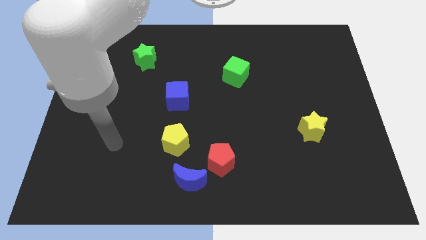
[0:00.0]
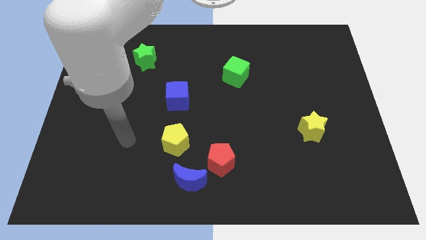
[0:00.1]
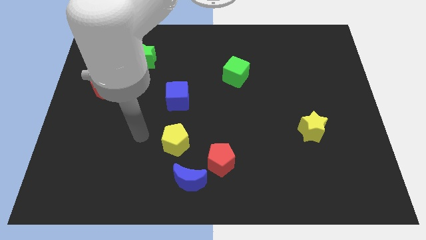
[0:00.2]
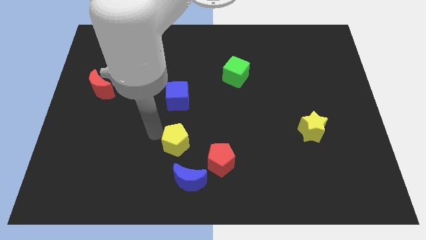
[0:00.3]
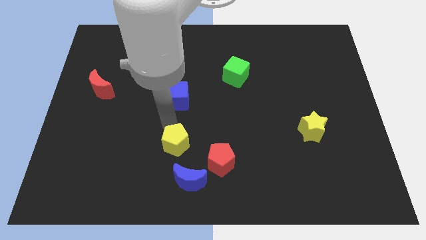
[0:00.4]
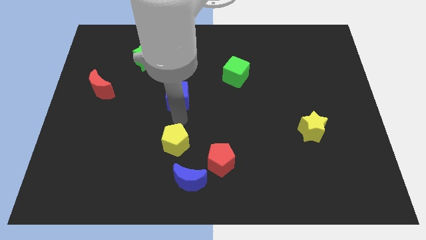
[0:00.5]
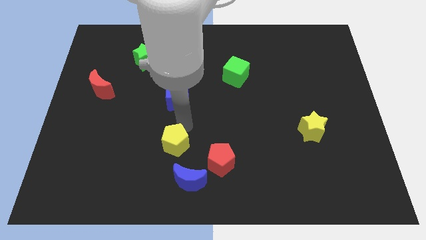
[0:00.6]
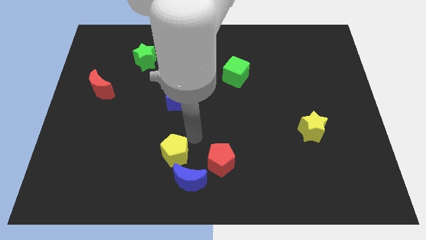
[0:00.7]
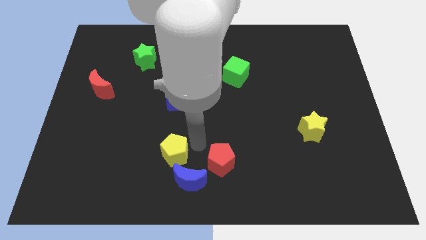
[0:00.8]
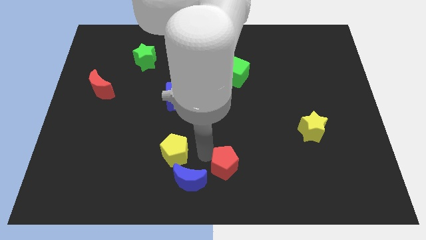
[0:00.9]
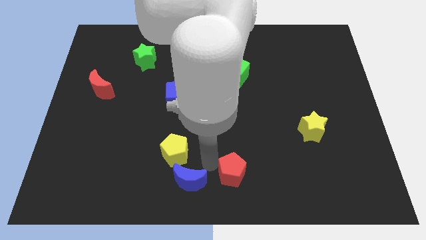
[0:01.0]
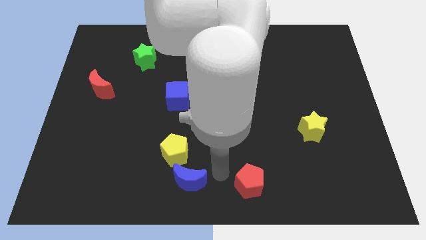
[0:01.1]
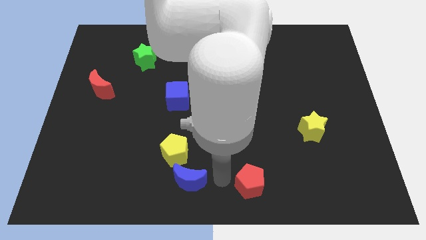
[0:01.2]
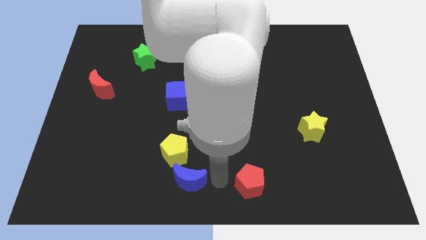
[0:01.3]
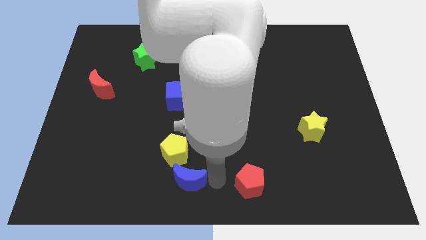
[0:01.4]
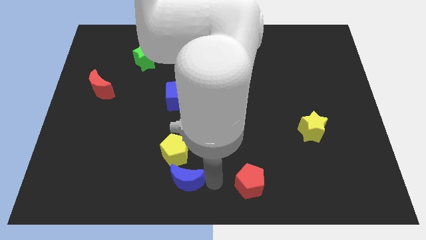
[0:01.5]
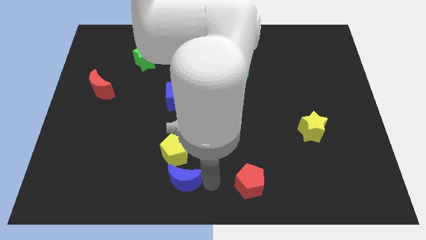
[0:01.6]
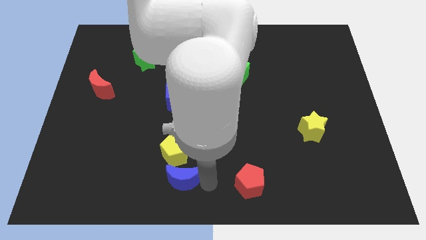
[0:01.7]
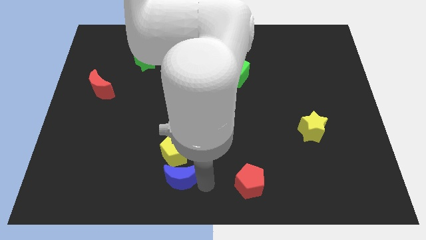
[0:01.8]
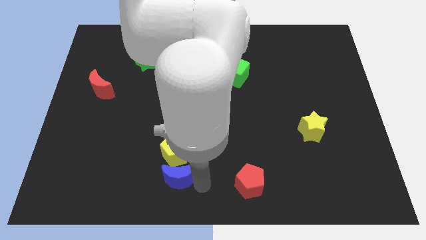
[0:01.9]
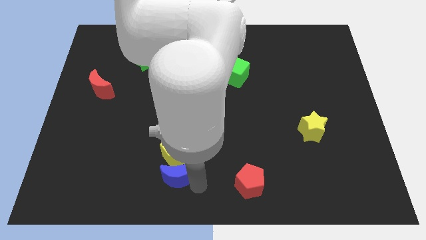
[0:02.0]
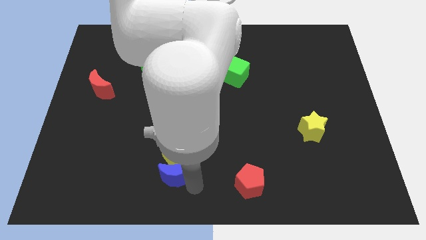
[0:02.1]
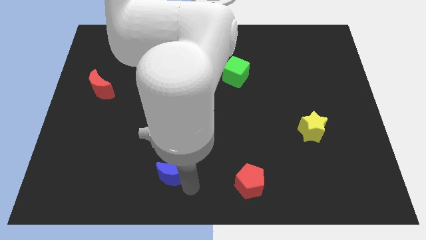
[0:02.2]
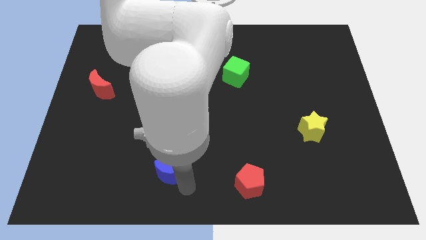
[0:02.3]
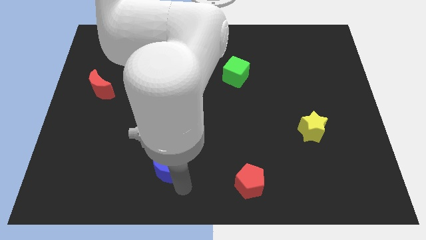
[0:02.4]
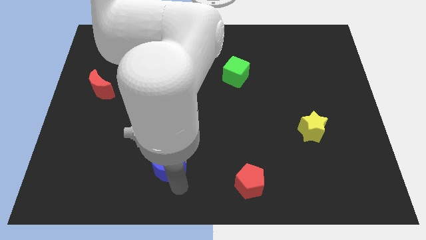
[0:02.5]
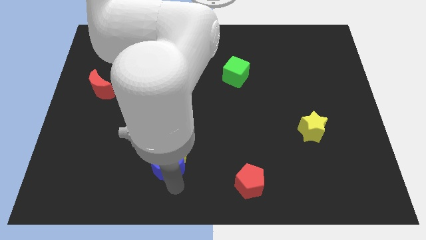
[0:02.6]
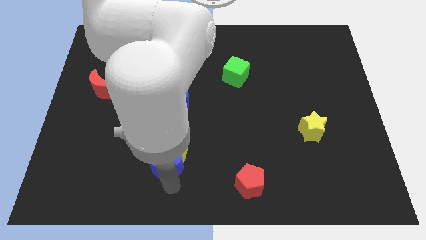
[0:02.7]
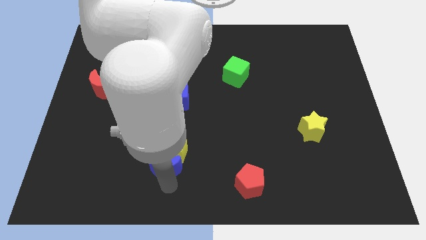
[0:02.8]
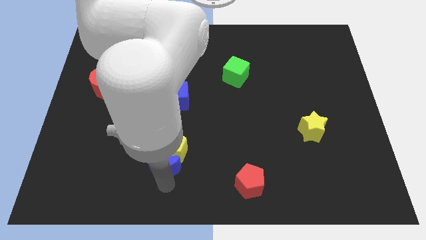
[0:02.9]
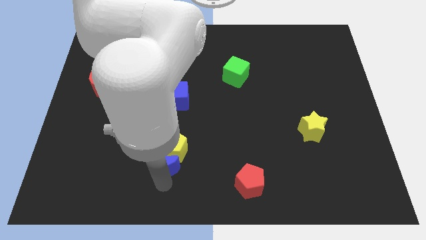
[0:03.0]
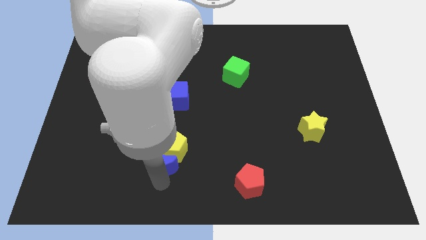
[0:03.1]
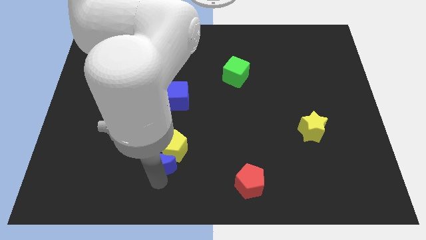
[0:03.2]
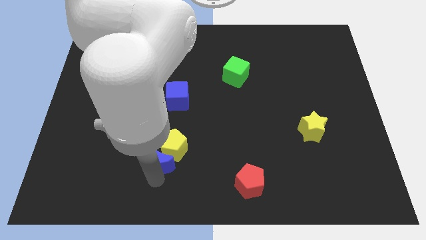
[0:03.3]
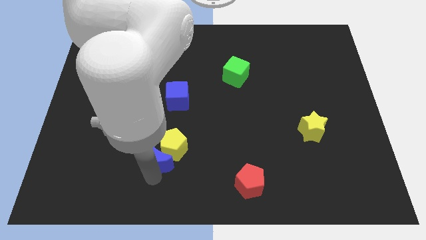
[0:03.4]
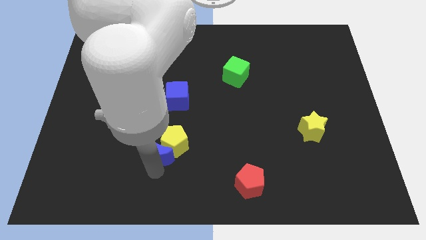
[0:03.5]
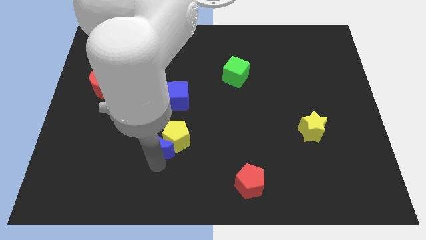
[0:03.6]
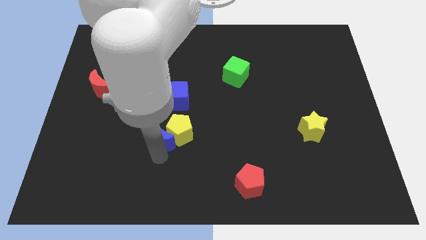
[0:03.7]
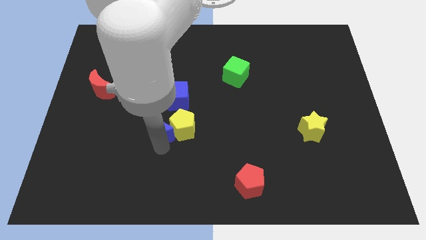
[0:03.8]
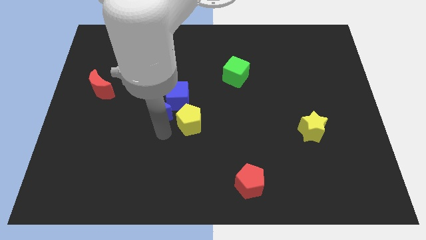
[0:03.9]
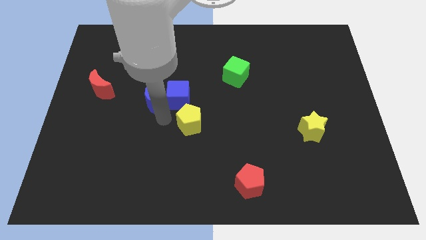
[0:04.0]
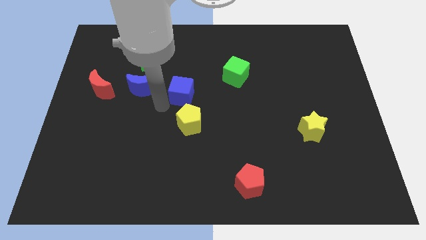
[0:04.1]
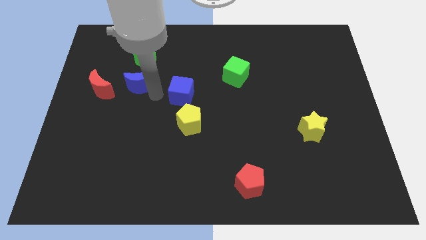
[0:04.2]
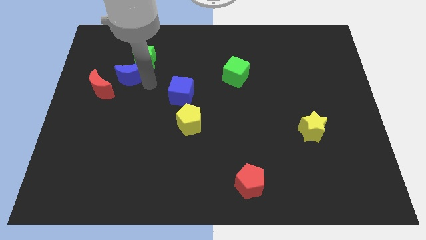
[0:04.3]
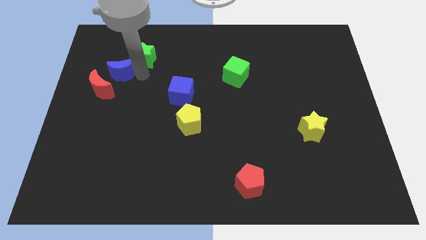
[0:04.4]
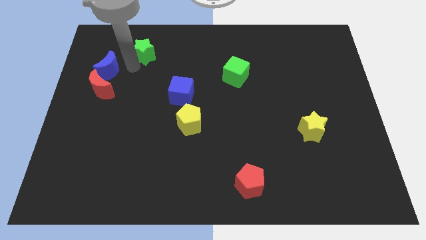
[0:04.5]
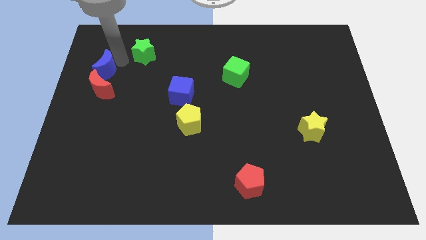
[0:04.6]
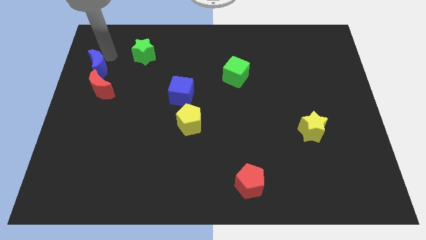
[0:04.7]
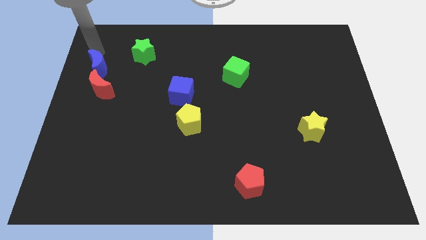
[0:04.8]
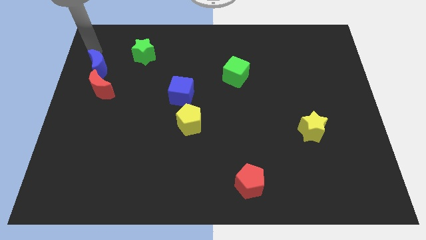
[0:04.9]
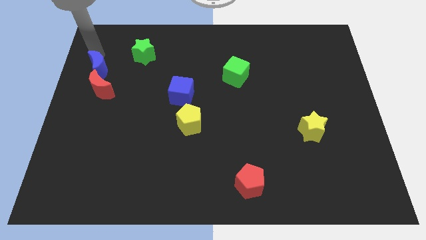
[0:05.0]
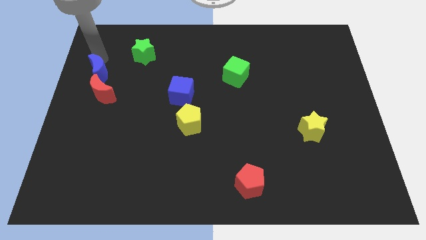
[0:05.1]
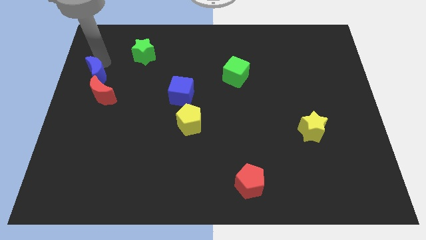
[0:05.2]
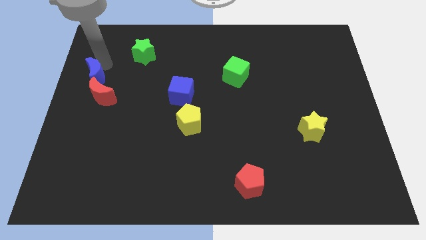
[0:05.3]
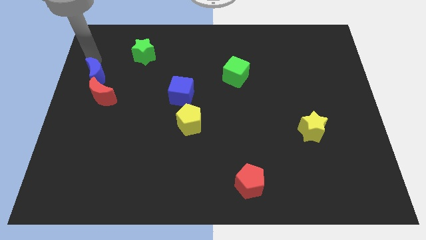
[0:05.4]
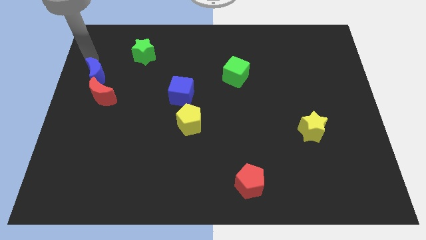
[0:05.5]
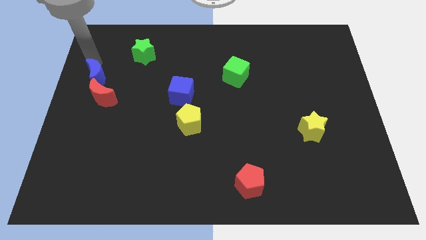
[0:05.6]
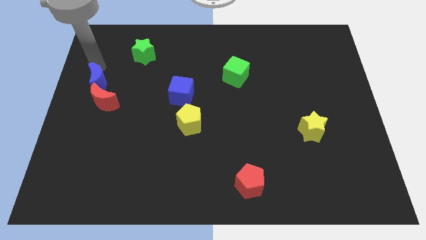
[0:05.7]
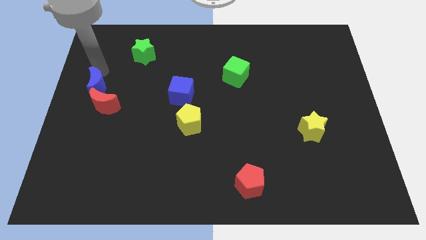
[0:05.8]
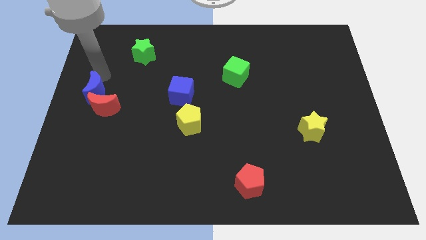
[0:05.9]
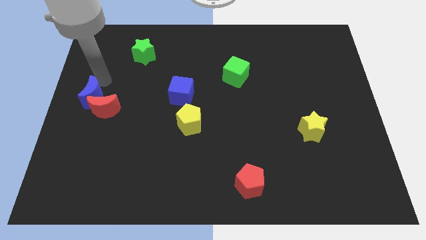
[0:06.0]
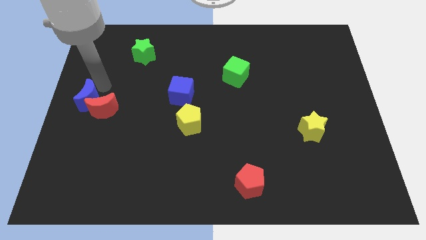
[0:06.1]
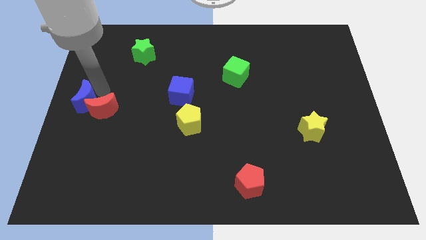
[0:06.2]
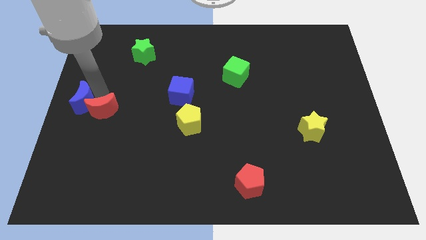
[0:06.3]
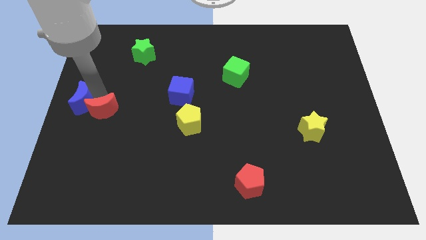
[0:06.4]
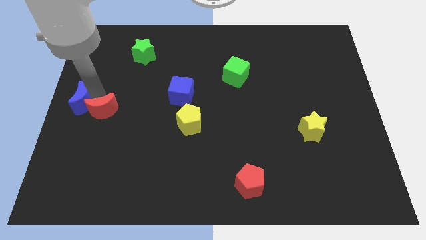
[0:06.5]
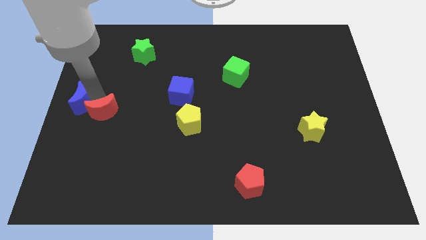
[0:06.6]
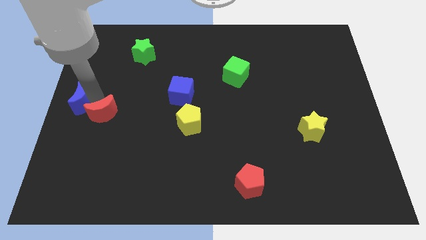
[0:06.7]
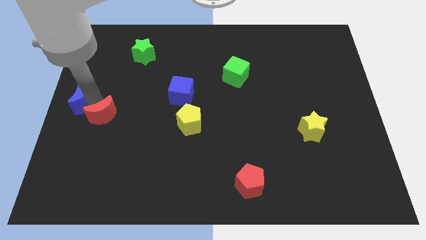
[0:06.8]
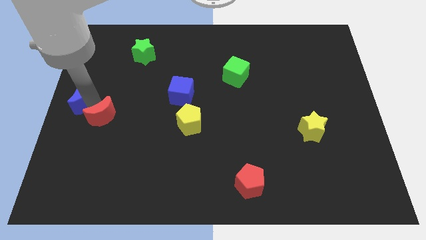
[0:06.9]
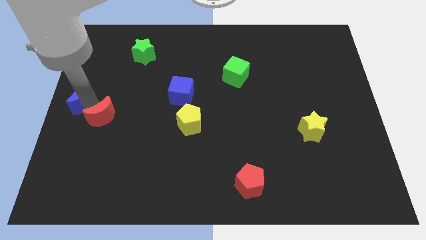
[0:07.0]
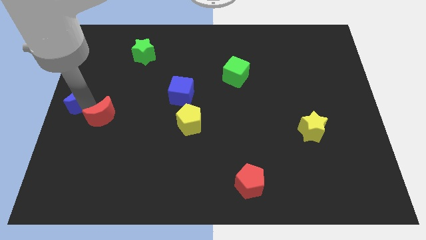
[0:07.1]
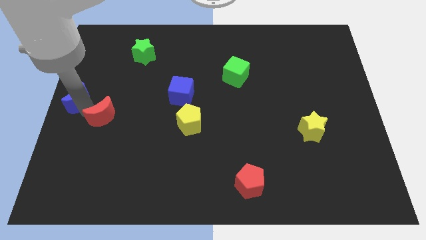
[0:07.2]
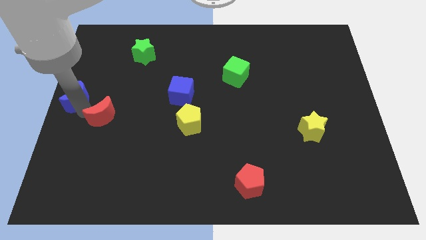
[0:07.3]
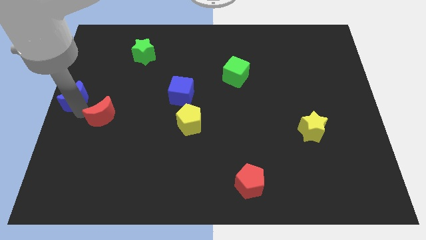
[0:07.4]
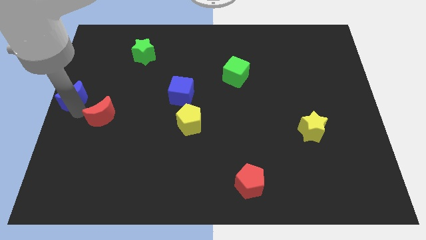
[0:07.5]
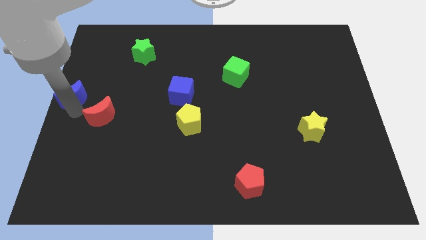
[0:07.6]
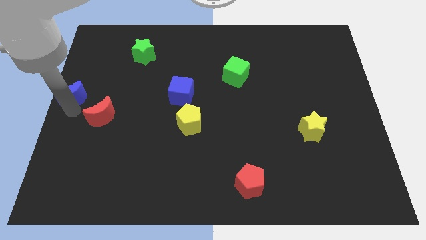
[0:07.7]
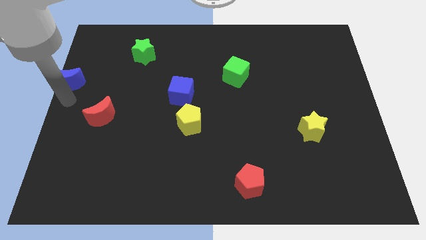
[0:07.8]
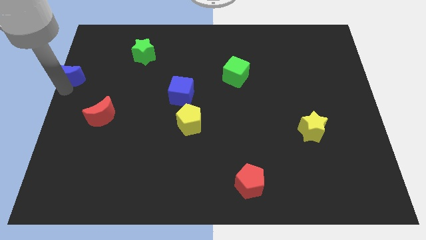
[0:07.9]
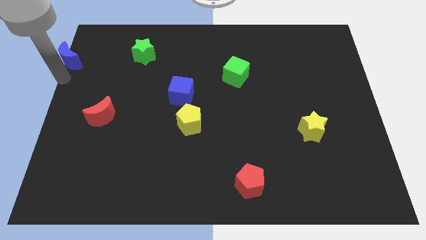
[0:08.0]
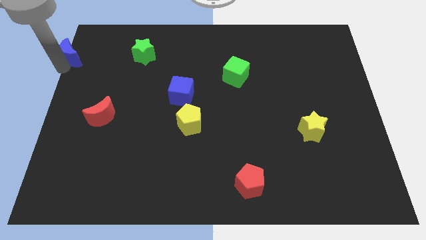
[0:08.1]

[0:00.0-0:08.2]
slide the blue moon to the top left corner

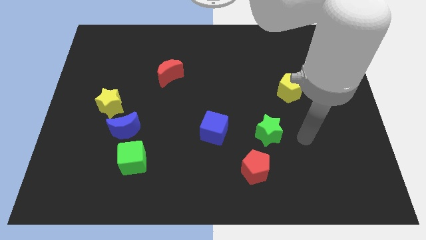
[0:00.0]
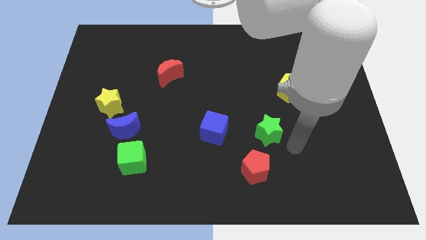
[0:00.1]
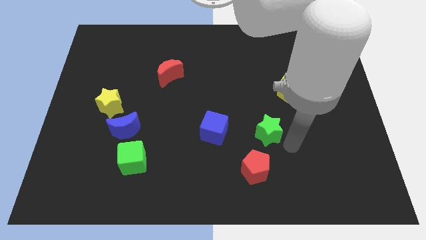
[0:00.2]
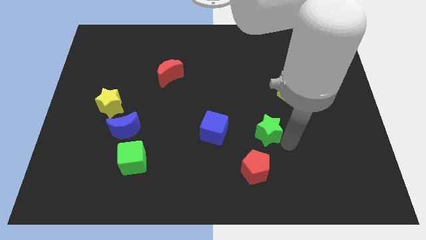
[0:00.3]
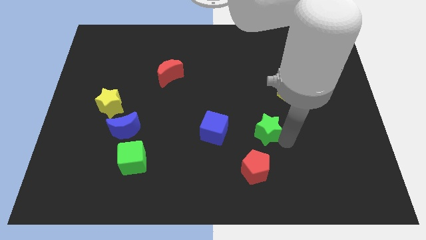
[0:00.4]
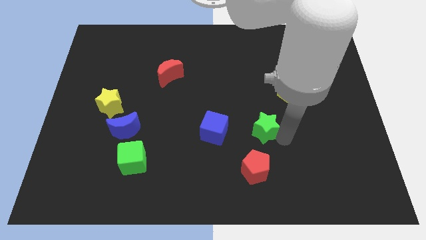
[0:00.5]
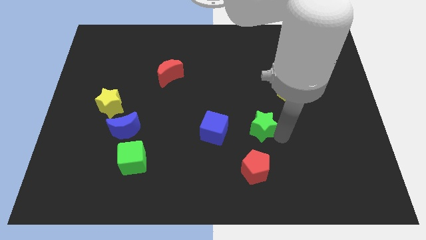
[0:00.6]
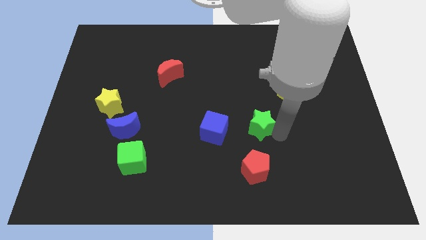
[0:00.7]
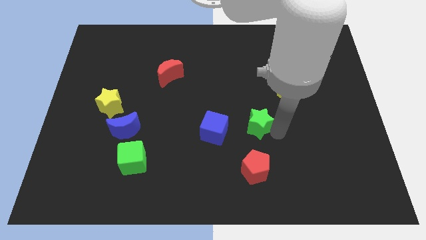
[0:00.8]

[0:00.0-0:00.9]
move the green star to the center
